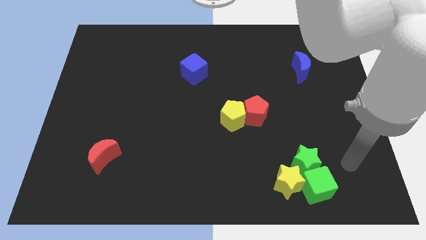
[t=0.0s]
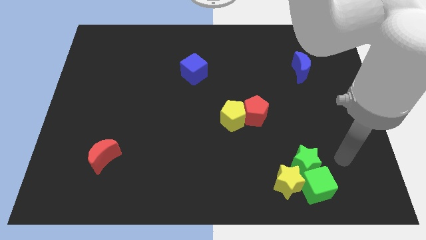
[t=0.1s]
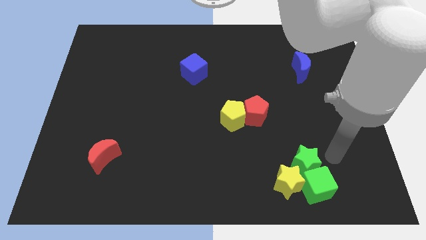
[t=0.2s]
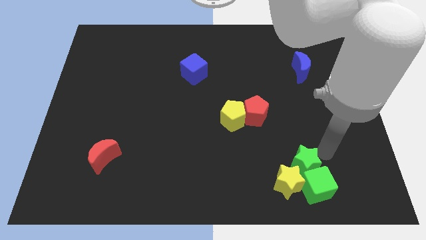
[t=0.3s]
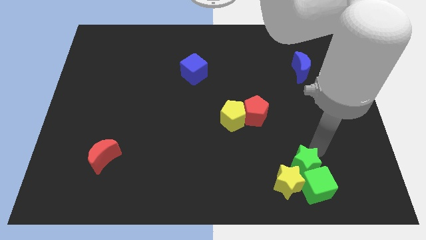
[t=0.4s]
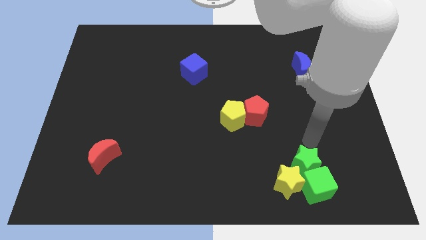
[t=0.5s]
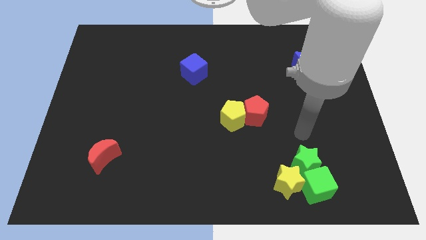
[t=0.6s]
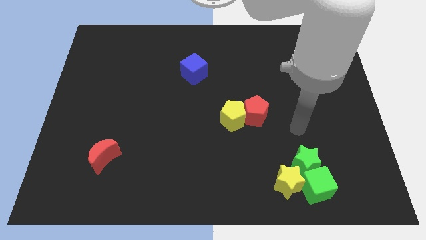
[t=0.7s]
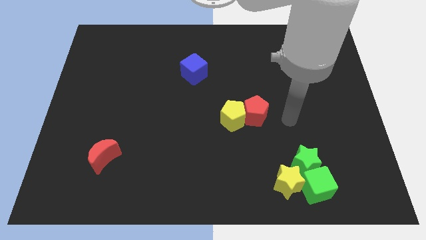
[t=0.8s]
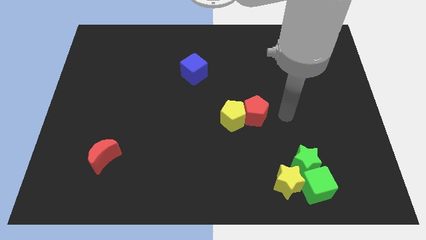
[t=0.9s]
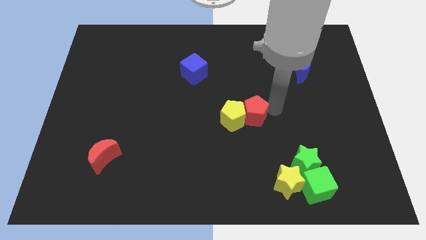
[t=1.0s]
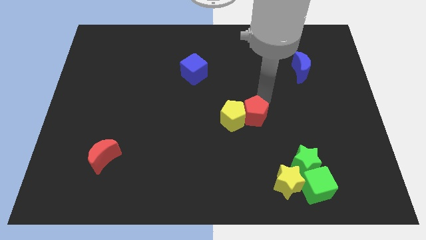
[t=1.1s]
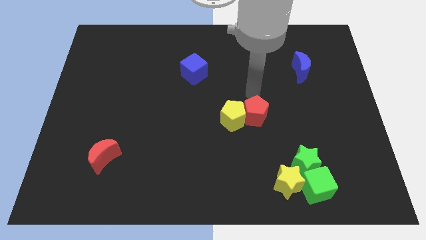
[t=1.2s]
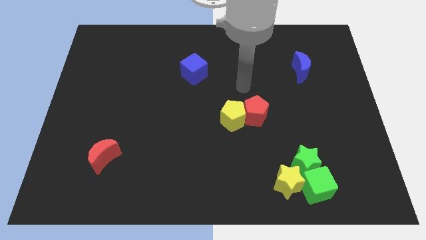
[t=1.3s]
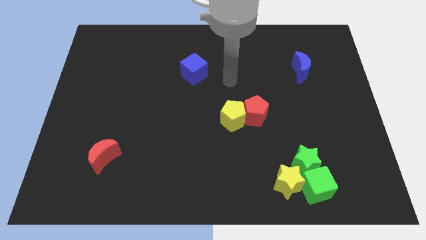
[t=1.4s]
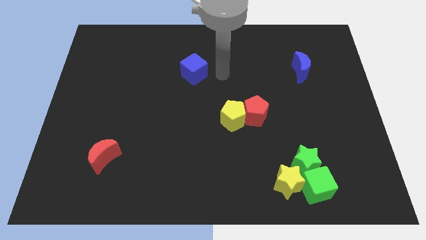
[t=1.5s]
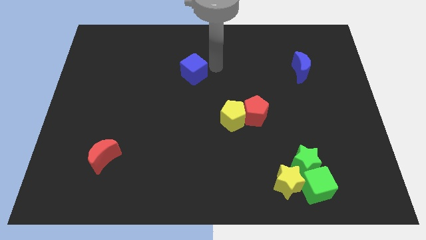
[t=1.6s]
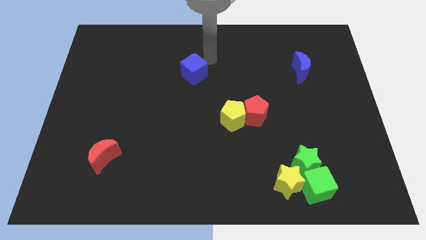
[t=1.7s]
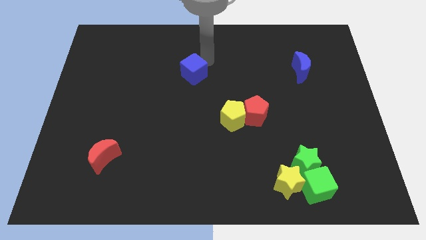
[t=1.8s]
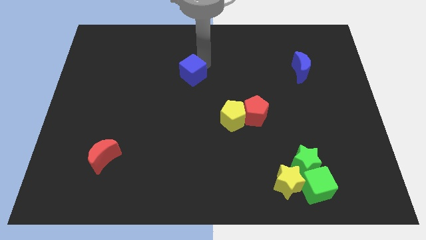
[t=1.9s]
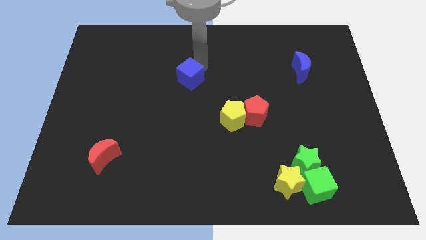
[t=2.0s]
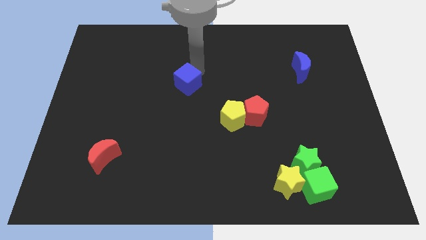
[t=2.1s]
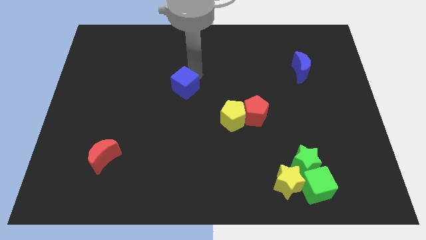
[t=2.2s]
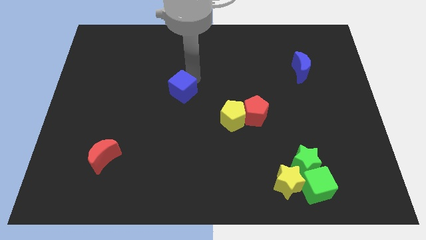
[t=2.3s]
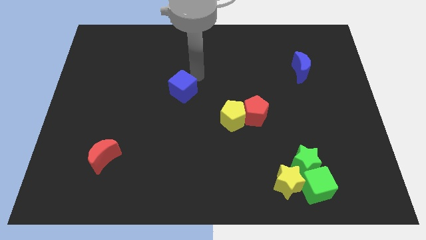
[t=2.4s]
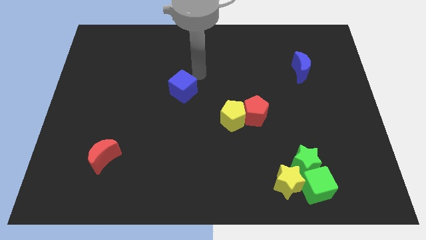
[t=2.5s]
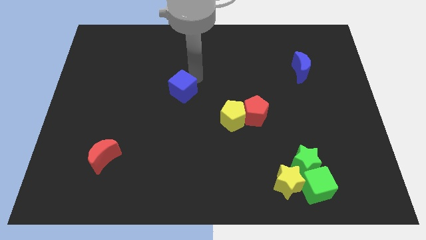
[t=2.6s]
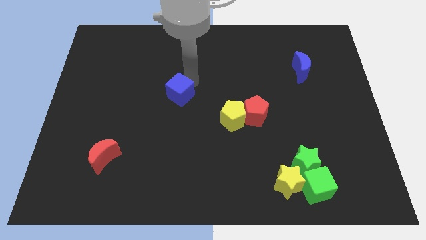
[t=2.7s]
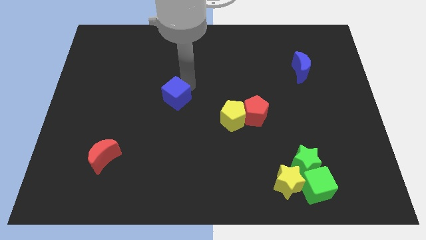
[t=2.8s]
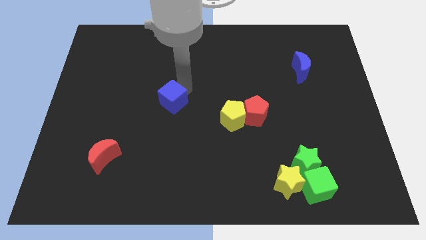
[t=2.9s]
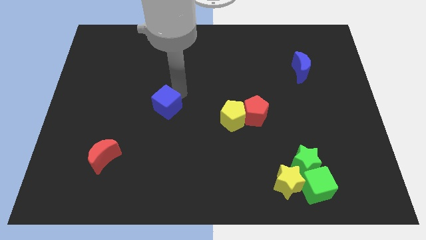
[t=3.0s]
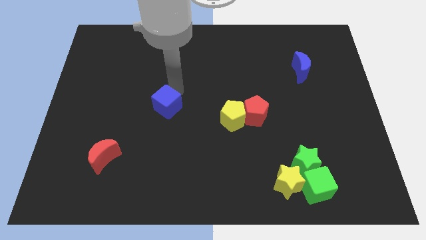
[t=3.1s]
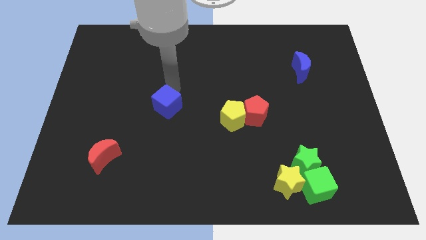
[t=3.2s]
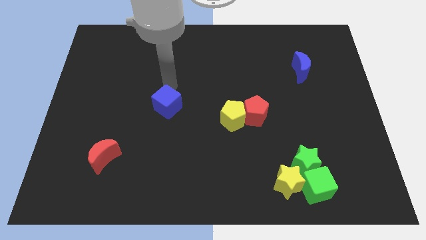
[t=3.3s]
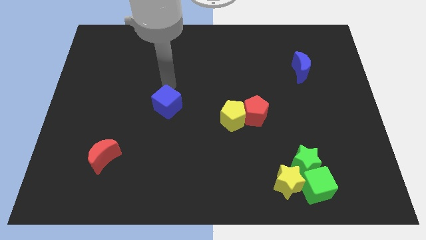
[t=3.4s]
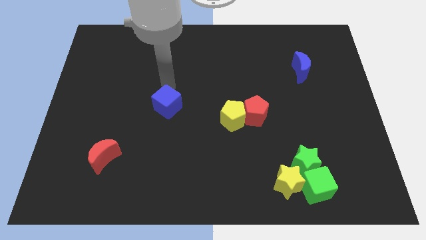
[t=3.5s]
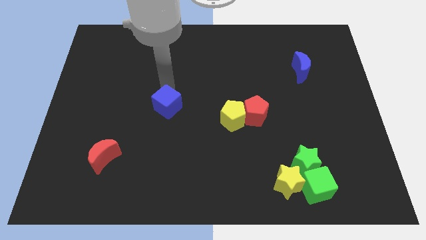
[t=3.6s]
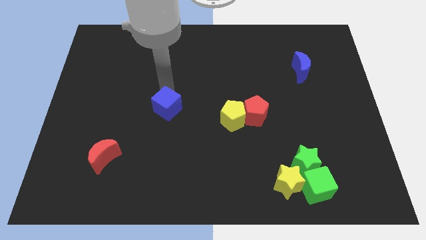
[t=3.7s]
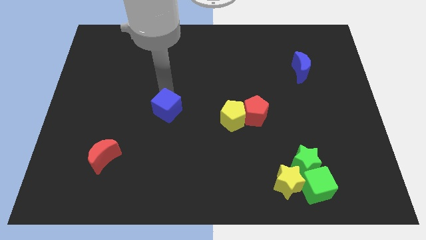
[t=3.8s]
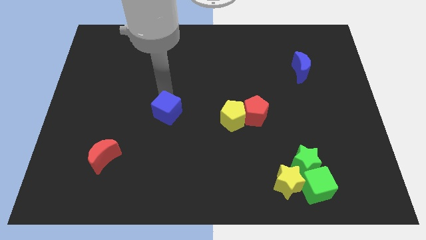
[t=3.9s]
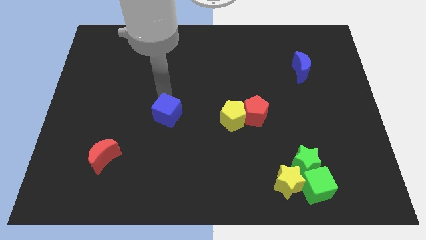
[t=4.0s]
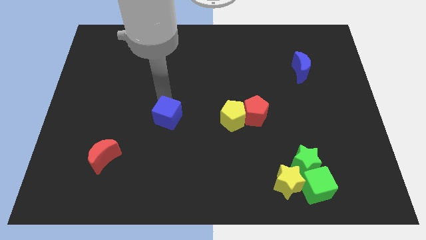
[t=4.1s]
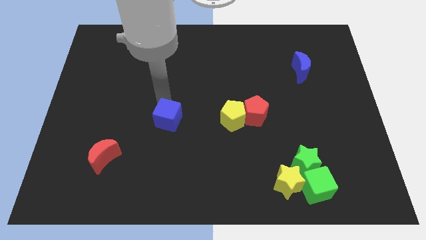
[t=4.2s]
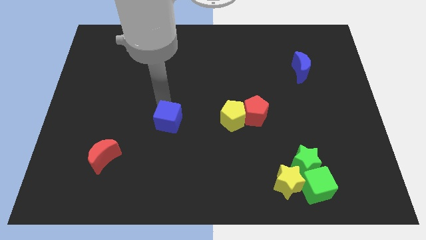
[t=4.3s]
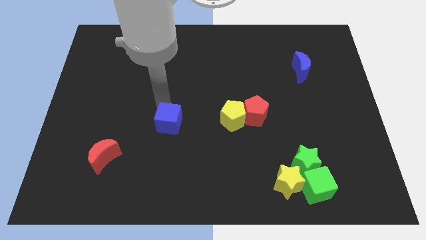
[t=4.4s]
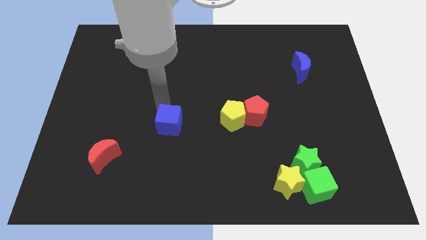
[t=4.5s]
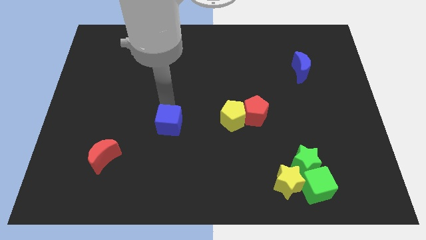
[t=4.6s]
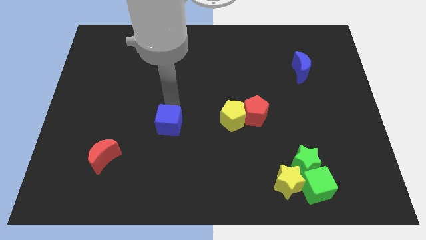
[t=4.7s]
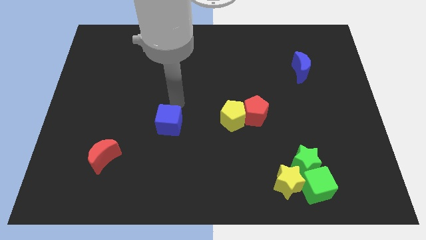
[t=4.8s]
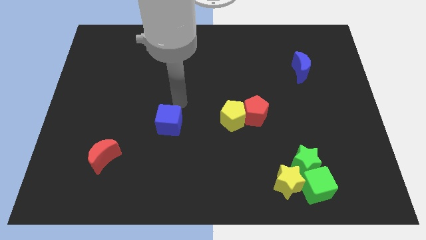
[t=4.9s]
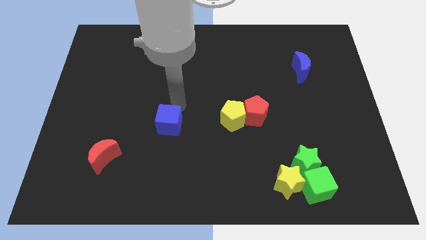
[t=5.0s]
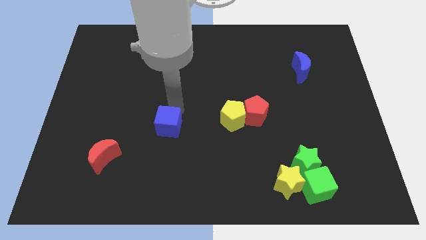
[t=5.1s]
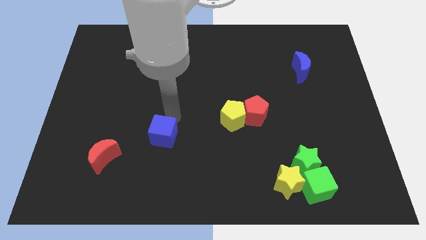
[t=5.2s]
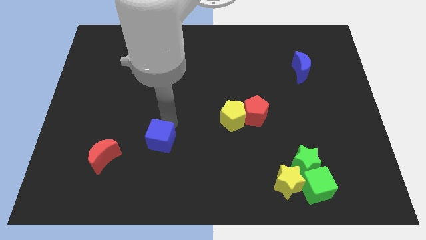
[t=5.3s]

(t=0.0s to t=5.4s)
move the blue cube just right of the red moon

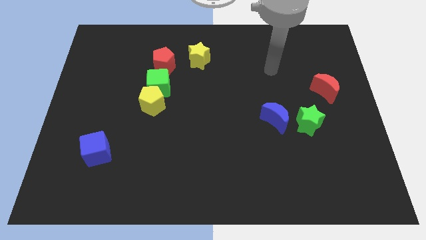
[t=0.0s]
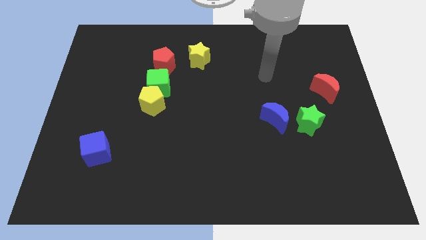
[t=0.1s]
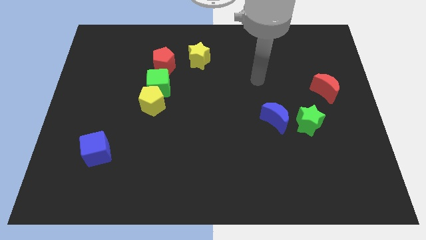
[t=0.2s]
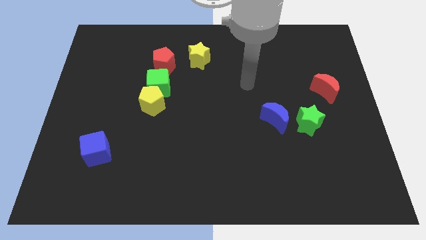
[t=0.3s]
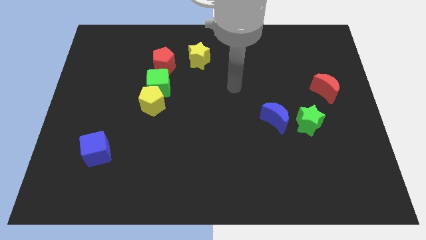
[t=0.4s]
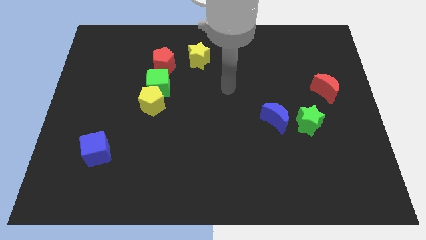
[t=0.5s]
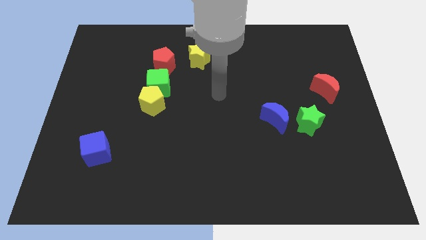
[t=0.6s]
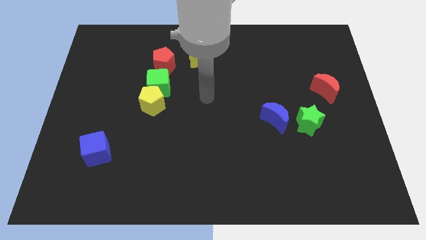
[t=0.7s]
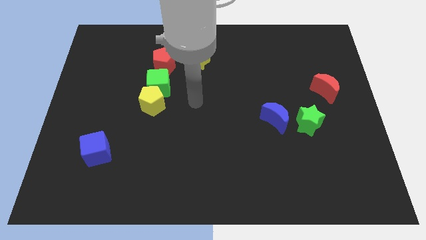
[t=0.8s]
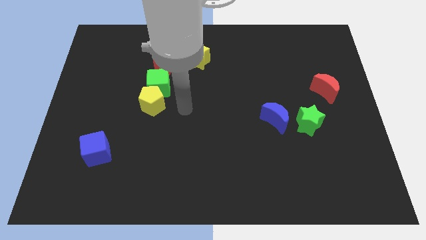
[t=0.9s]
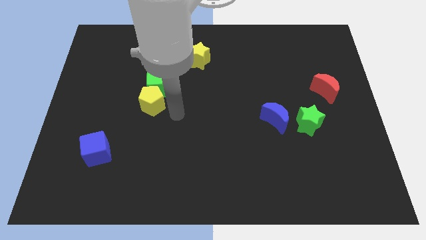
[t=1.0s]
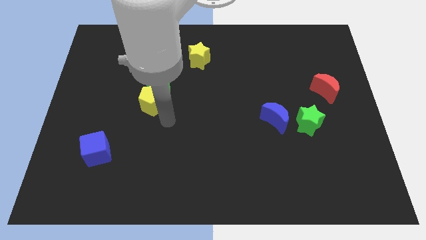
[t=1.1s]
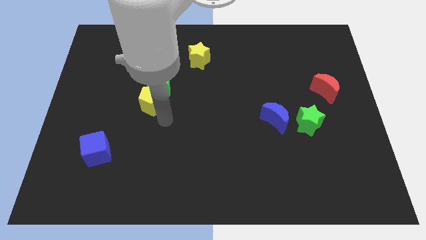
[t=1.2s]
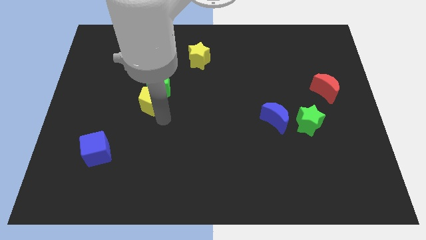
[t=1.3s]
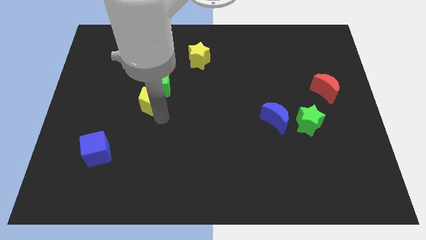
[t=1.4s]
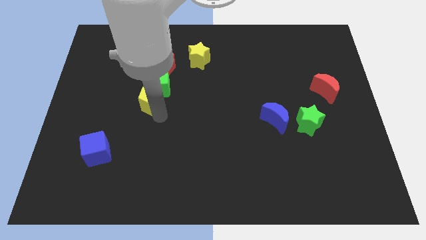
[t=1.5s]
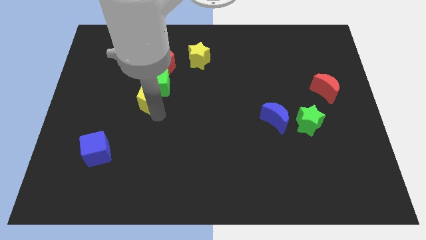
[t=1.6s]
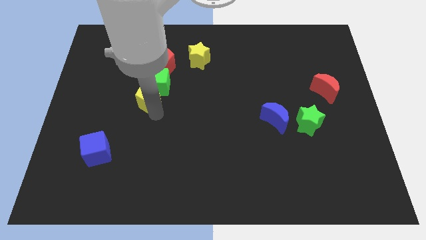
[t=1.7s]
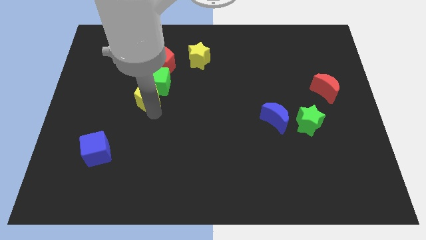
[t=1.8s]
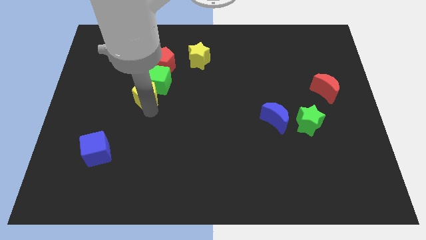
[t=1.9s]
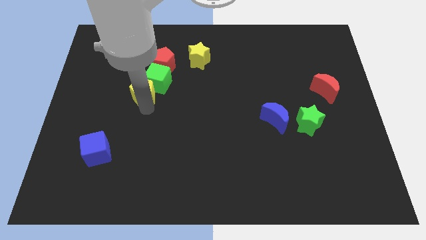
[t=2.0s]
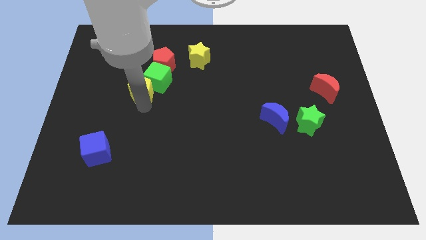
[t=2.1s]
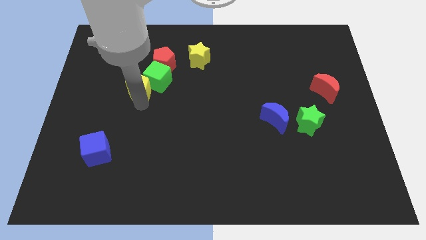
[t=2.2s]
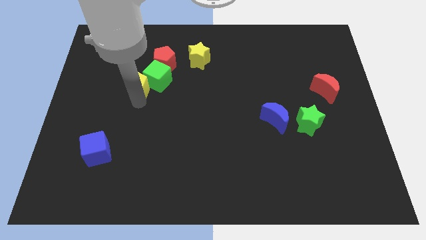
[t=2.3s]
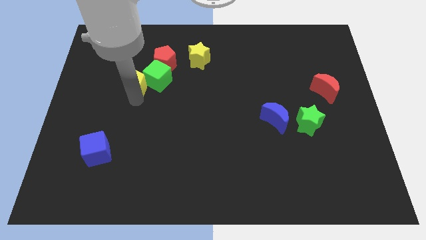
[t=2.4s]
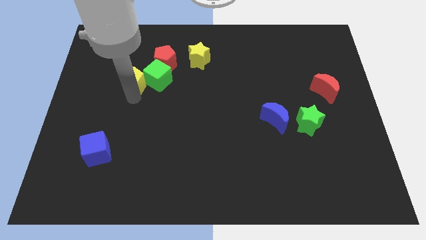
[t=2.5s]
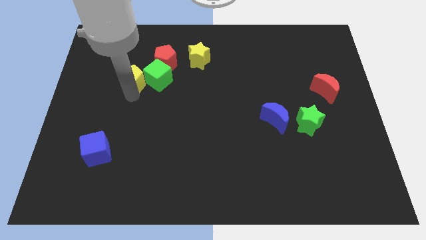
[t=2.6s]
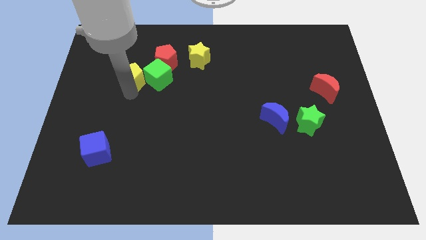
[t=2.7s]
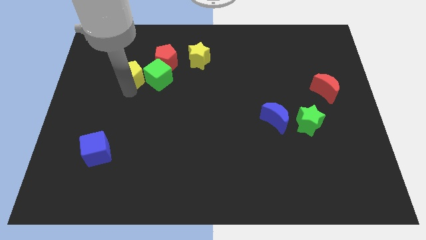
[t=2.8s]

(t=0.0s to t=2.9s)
move the yellow pentagon to the top left side of the green cube
